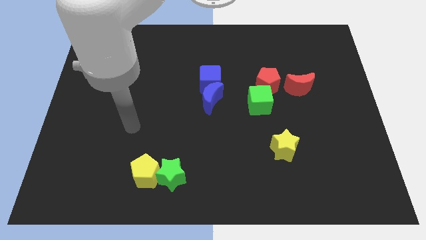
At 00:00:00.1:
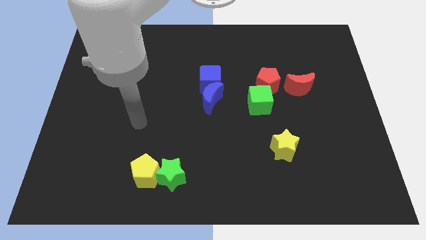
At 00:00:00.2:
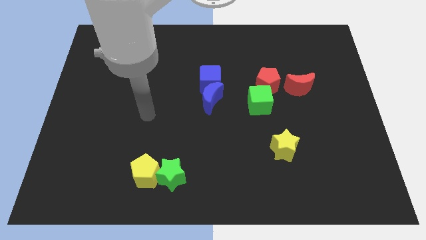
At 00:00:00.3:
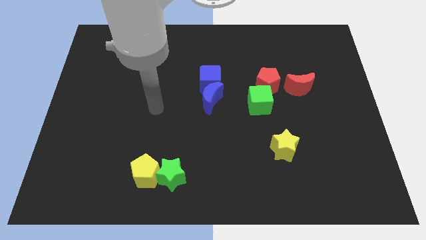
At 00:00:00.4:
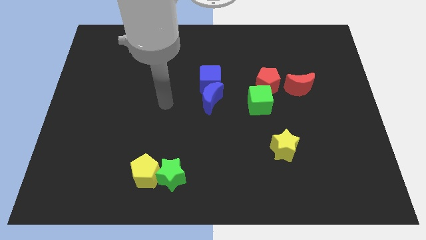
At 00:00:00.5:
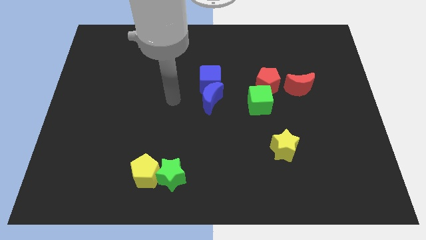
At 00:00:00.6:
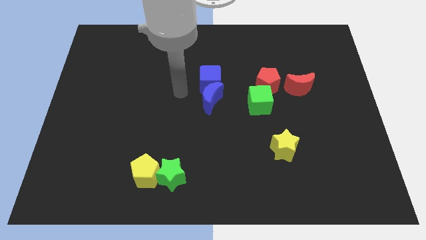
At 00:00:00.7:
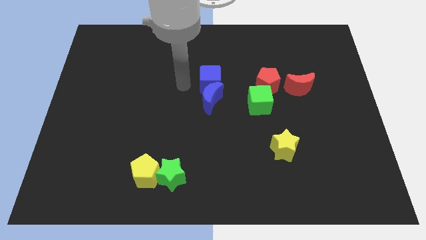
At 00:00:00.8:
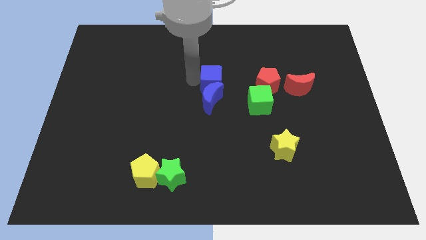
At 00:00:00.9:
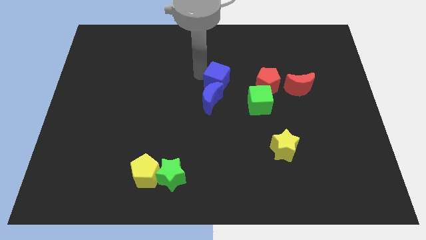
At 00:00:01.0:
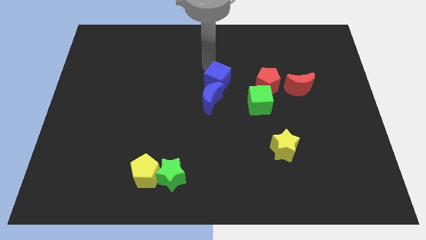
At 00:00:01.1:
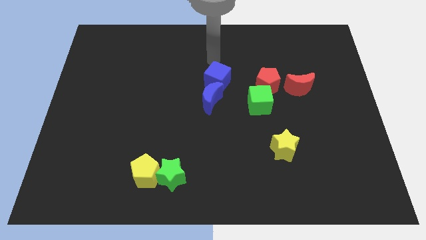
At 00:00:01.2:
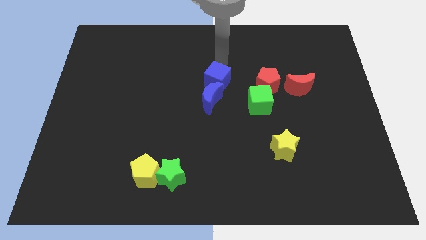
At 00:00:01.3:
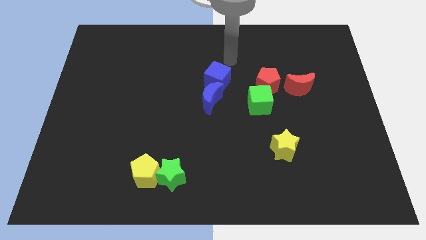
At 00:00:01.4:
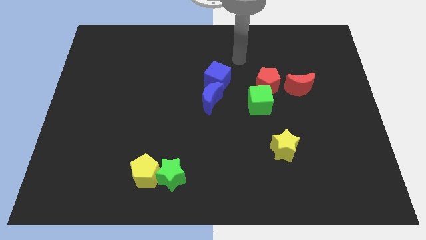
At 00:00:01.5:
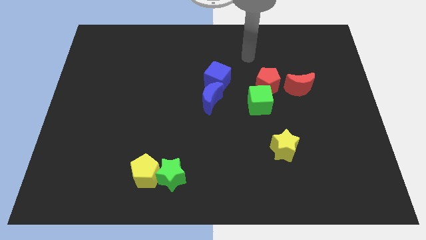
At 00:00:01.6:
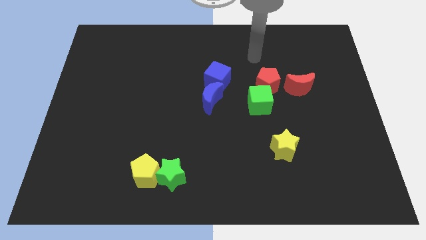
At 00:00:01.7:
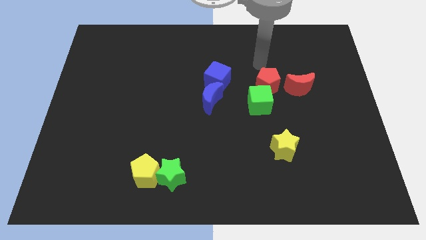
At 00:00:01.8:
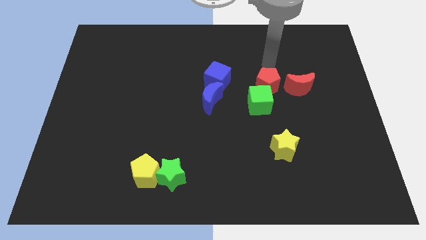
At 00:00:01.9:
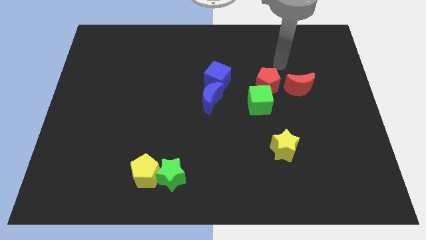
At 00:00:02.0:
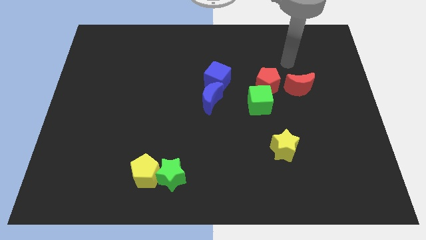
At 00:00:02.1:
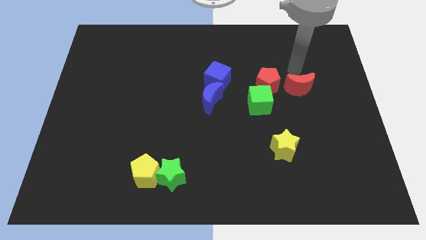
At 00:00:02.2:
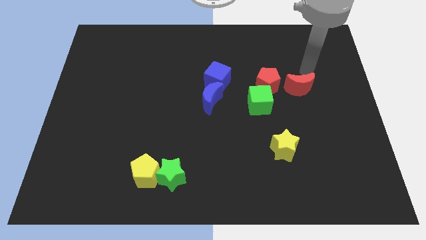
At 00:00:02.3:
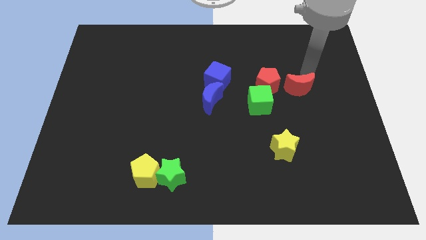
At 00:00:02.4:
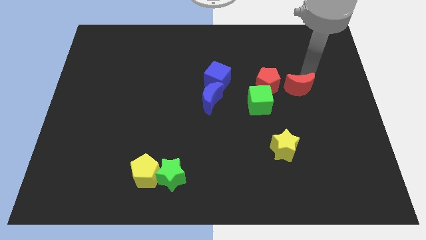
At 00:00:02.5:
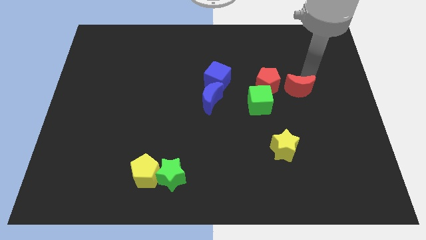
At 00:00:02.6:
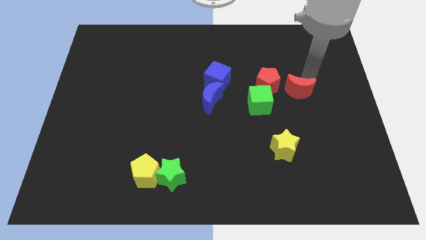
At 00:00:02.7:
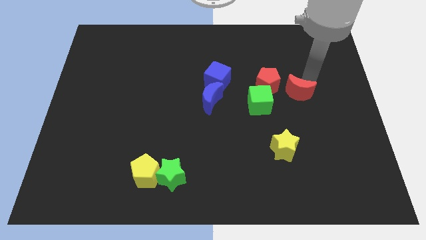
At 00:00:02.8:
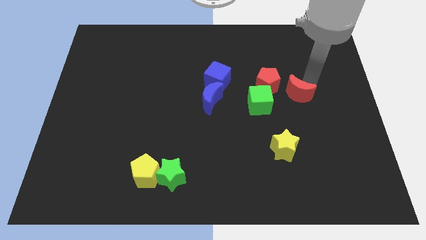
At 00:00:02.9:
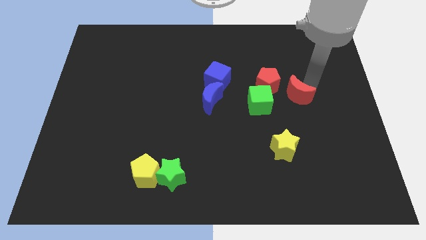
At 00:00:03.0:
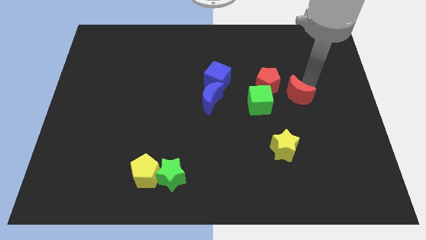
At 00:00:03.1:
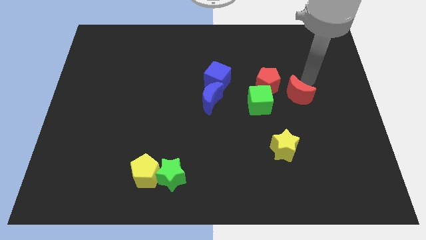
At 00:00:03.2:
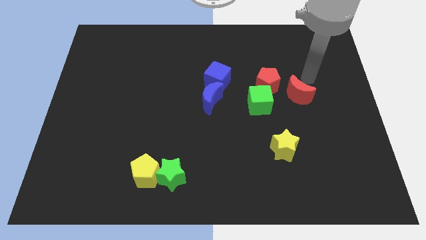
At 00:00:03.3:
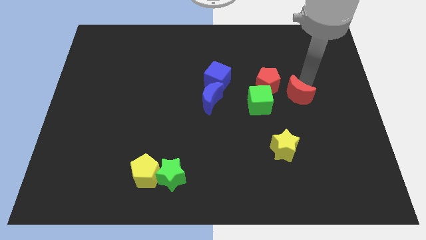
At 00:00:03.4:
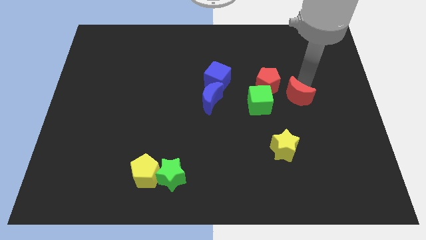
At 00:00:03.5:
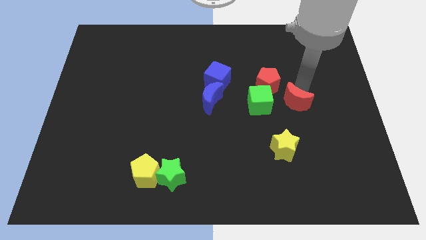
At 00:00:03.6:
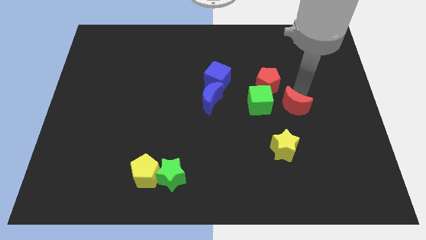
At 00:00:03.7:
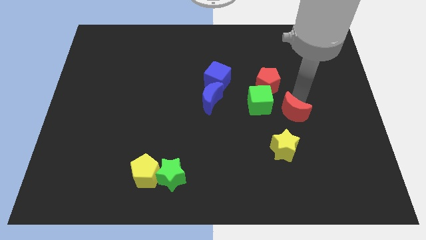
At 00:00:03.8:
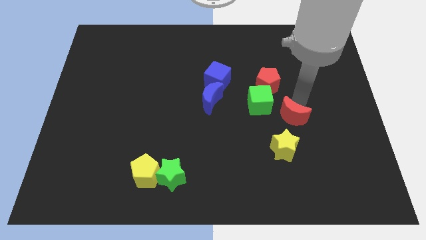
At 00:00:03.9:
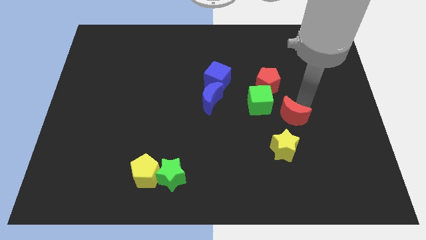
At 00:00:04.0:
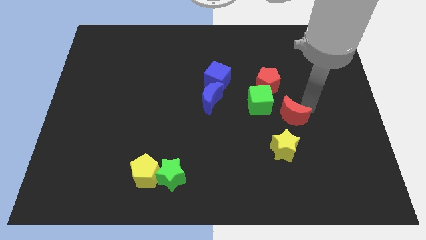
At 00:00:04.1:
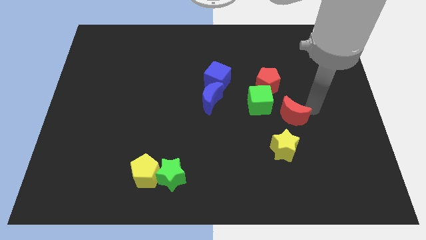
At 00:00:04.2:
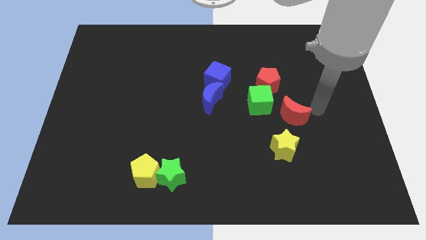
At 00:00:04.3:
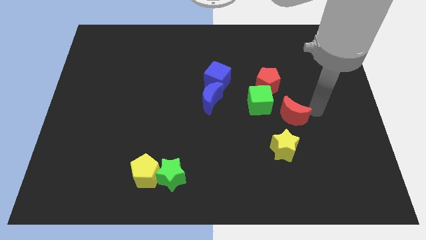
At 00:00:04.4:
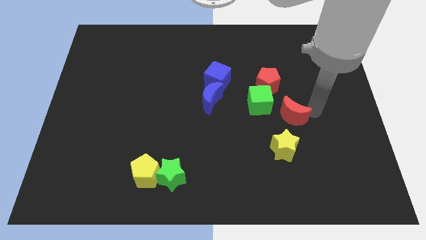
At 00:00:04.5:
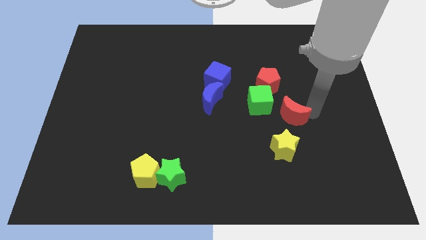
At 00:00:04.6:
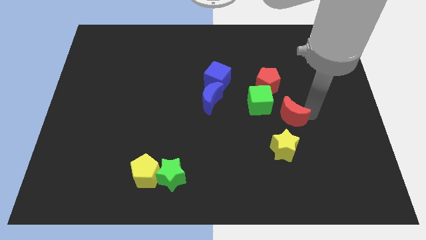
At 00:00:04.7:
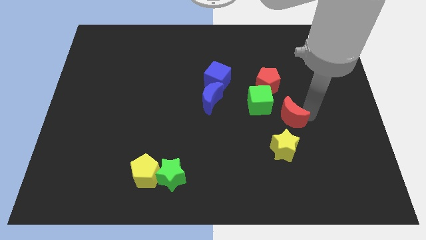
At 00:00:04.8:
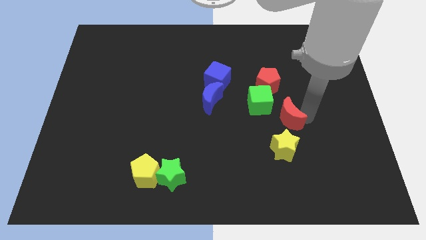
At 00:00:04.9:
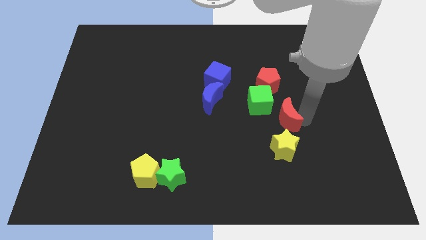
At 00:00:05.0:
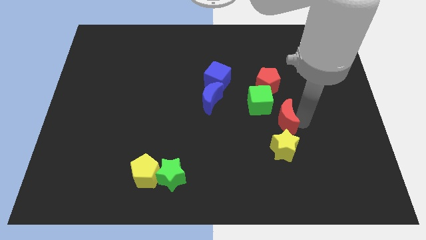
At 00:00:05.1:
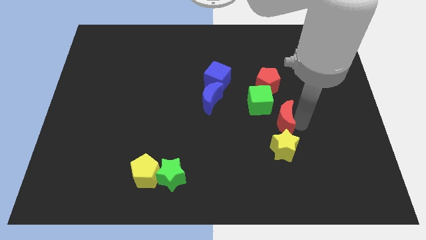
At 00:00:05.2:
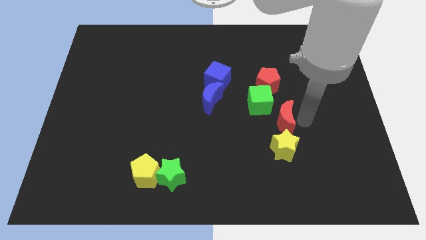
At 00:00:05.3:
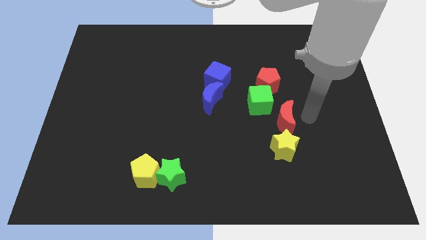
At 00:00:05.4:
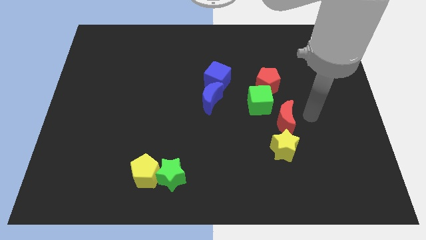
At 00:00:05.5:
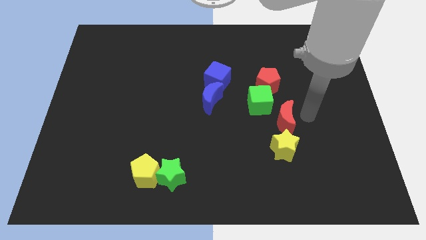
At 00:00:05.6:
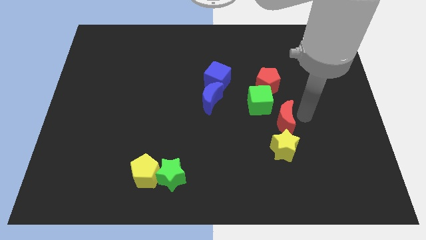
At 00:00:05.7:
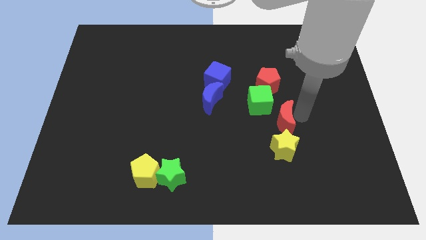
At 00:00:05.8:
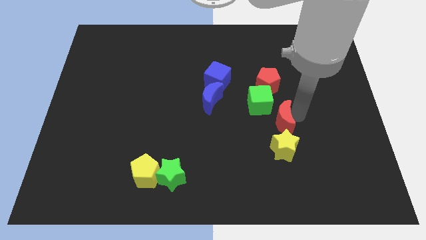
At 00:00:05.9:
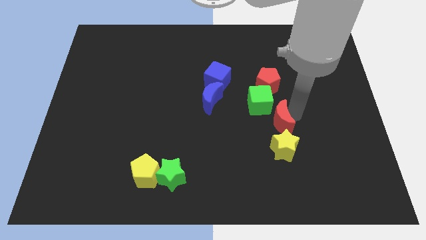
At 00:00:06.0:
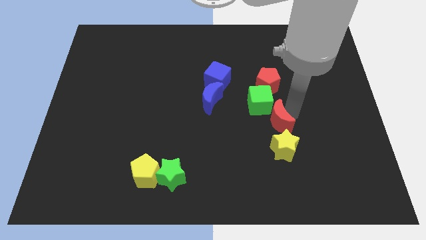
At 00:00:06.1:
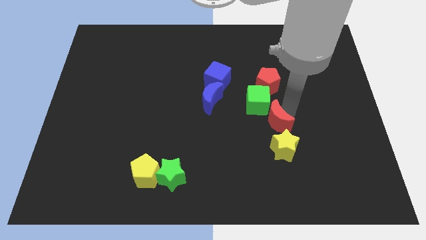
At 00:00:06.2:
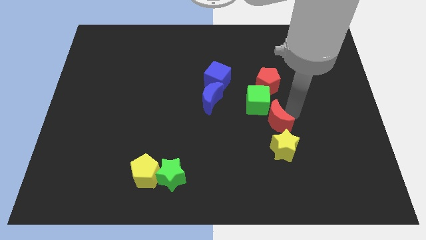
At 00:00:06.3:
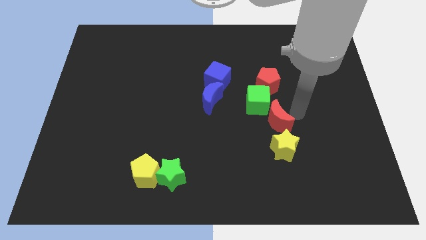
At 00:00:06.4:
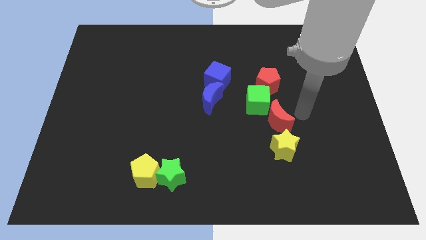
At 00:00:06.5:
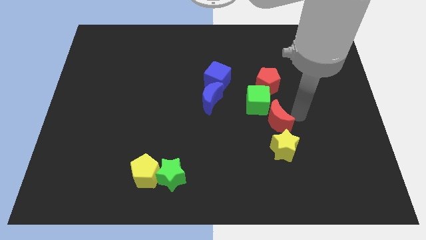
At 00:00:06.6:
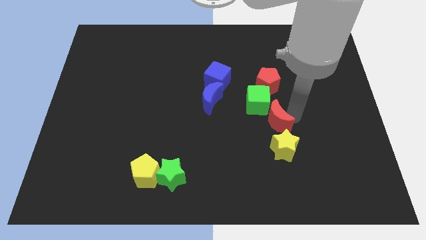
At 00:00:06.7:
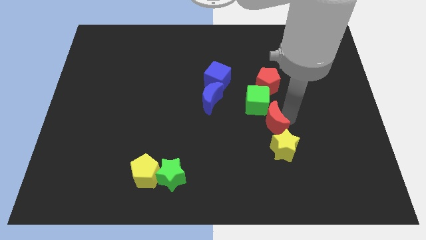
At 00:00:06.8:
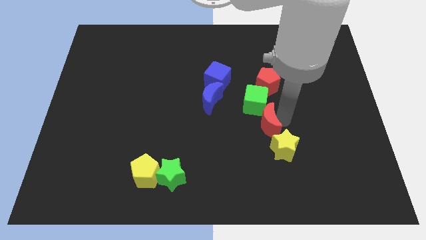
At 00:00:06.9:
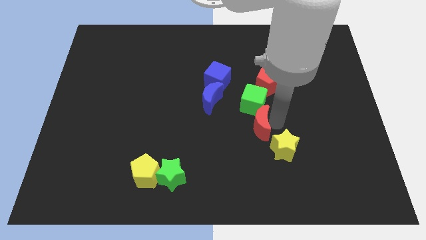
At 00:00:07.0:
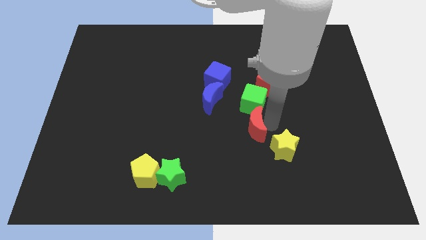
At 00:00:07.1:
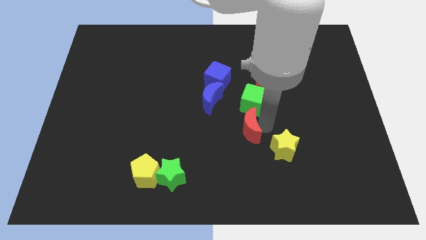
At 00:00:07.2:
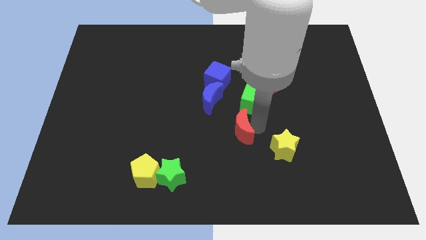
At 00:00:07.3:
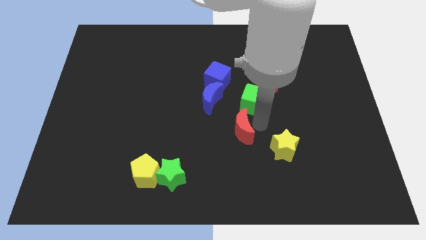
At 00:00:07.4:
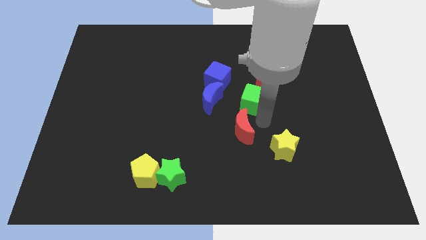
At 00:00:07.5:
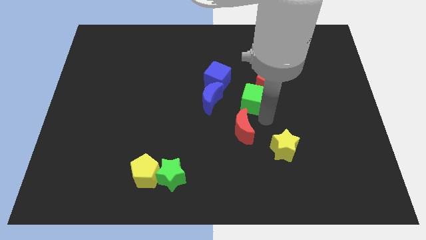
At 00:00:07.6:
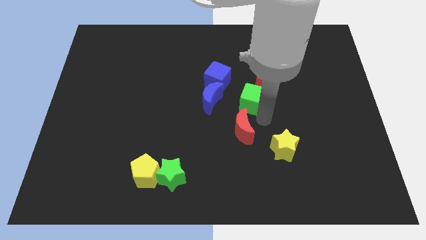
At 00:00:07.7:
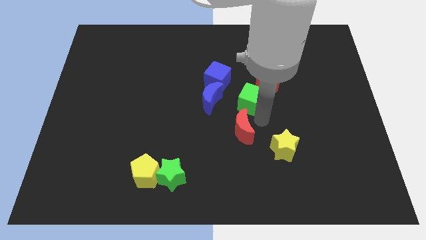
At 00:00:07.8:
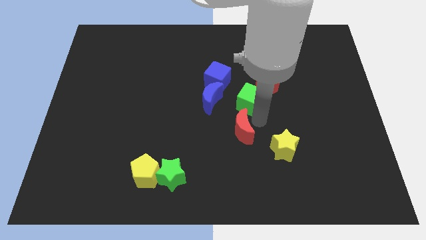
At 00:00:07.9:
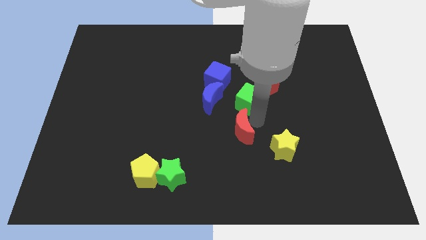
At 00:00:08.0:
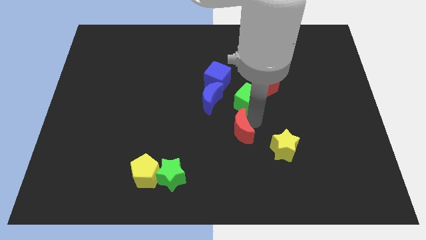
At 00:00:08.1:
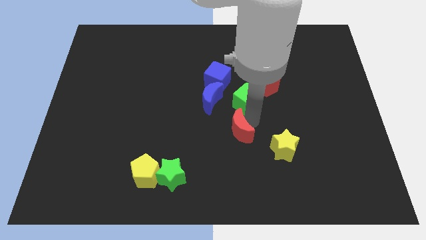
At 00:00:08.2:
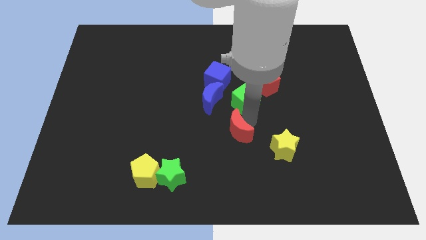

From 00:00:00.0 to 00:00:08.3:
move the red moon downwards and then to the left
